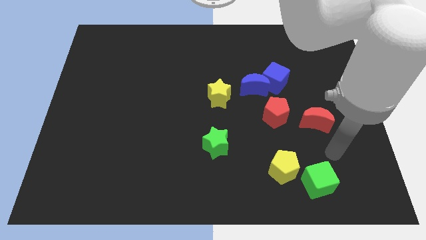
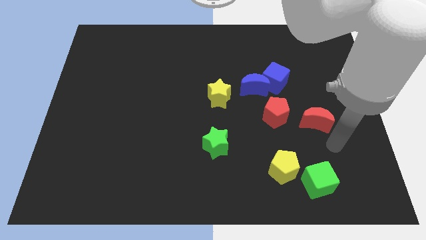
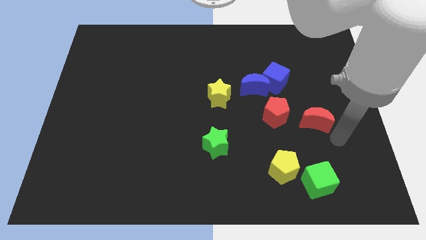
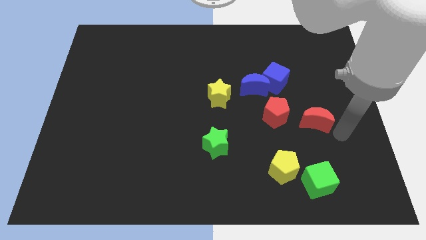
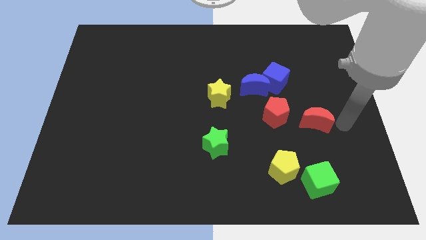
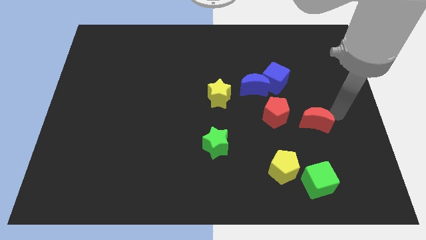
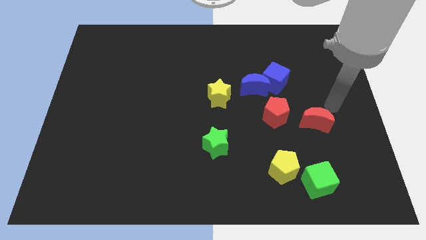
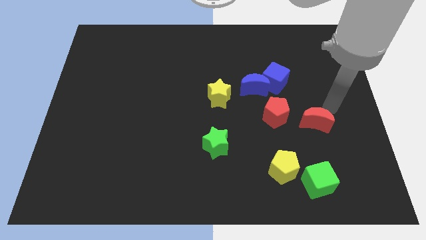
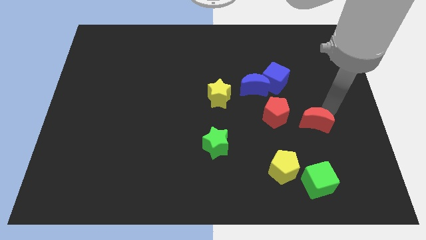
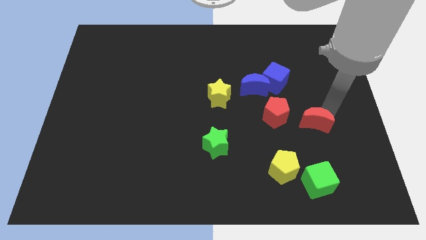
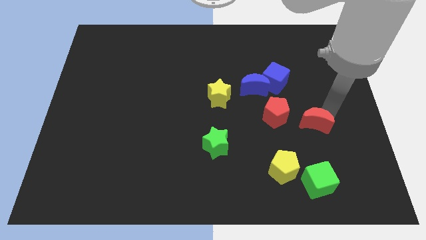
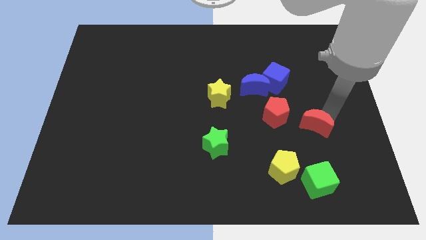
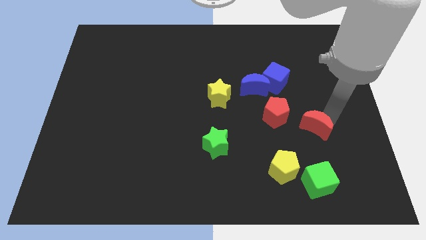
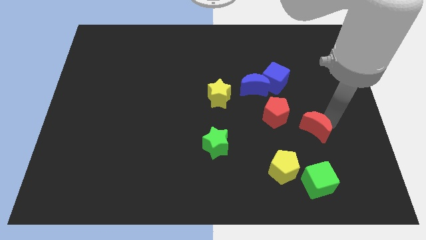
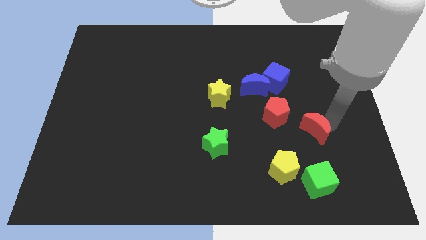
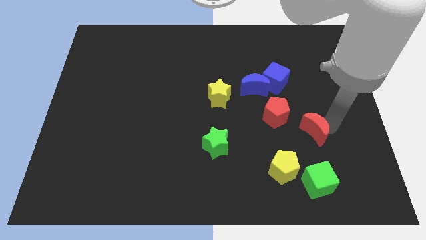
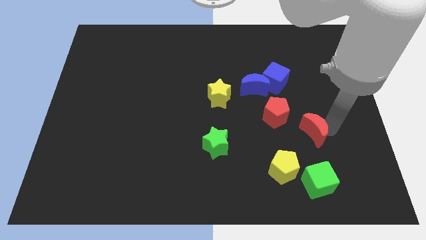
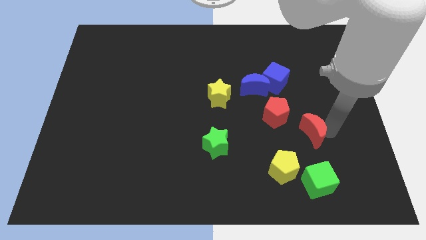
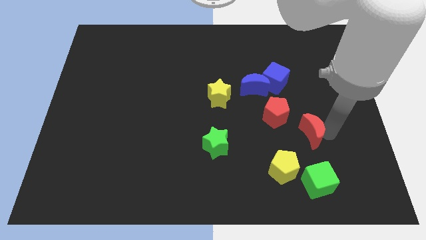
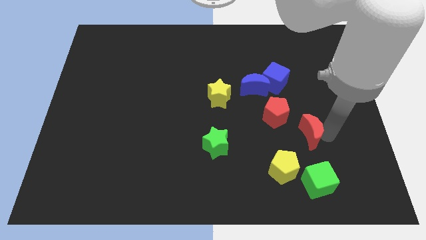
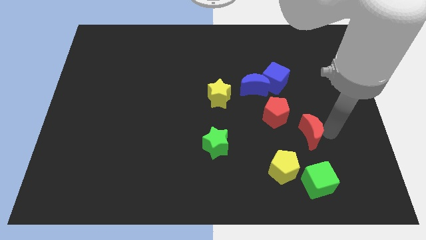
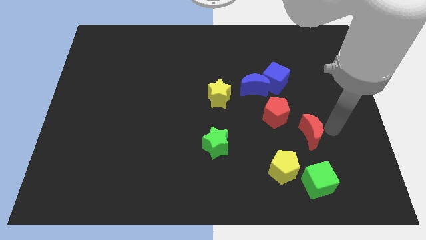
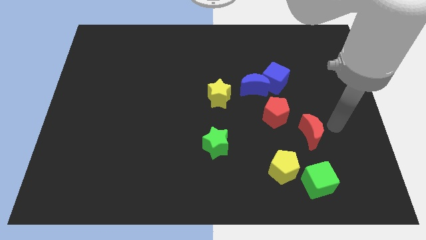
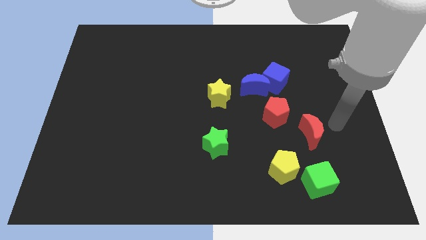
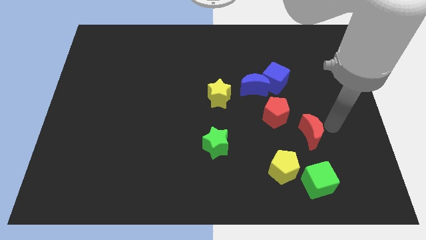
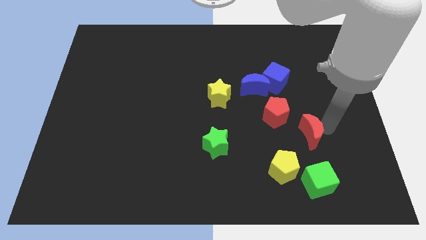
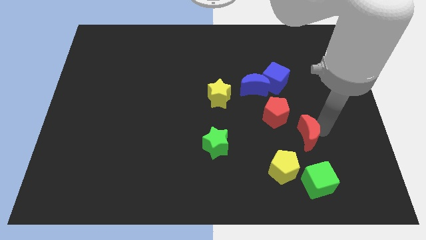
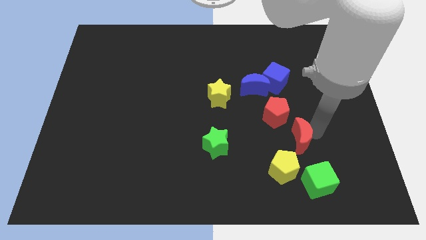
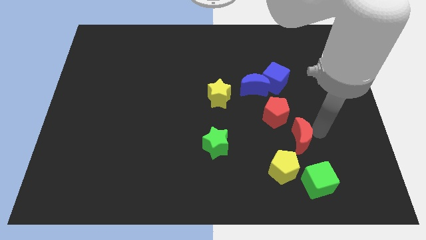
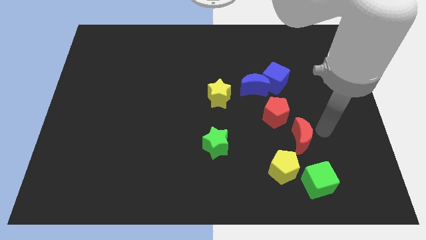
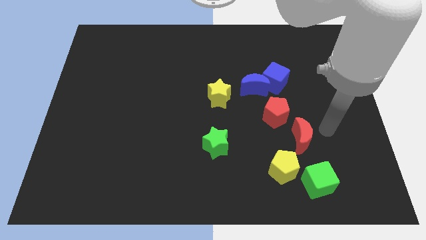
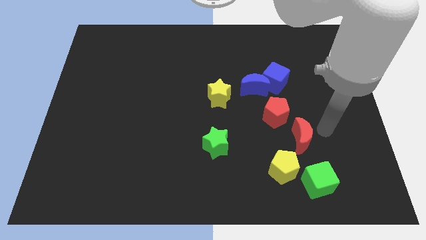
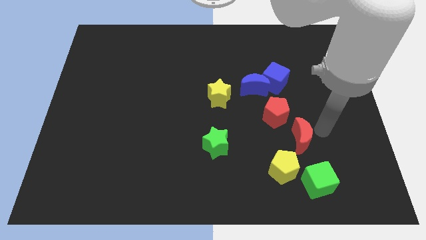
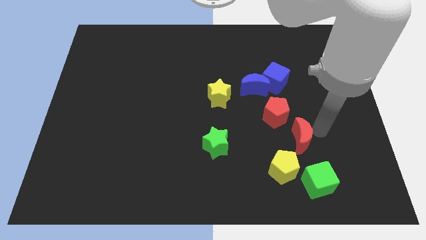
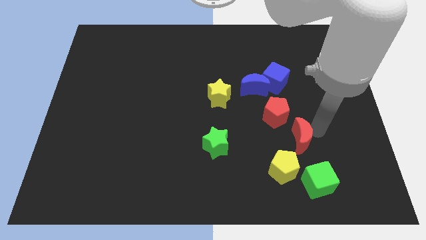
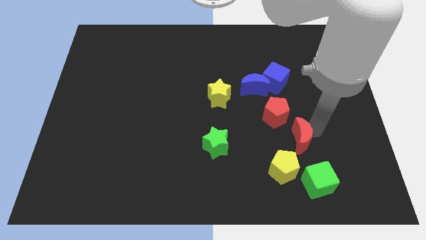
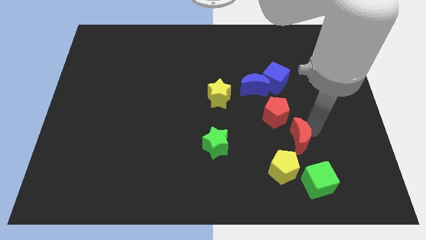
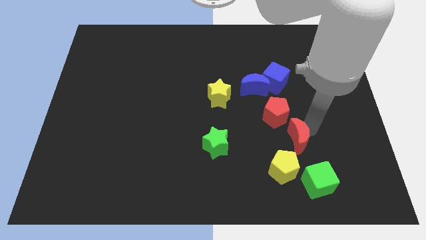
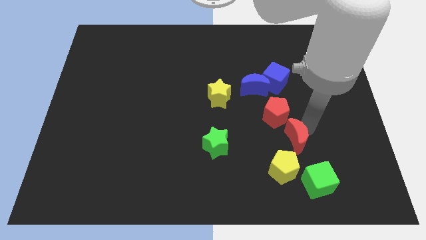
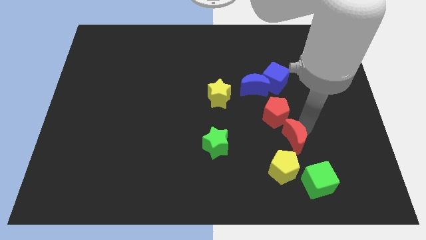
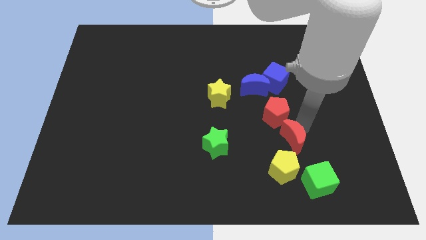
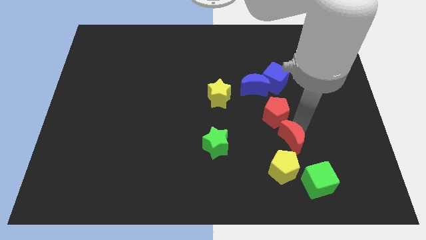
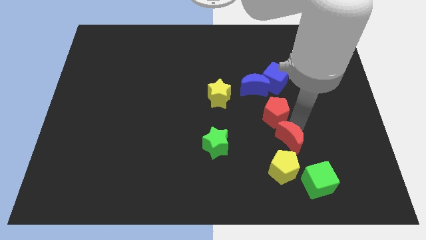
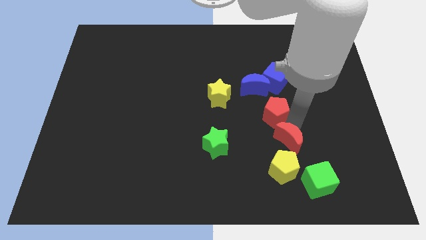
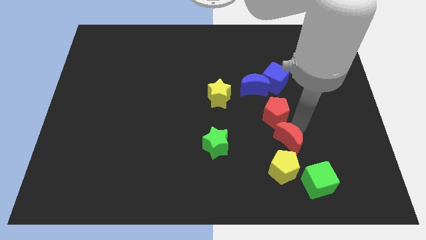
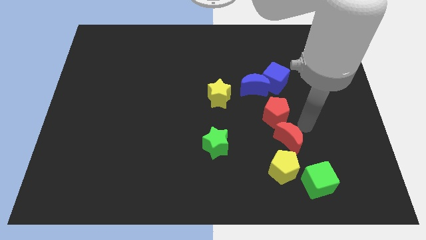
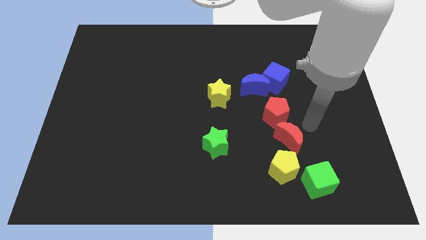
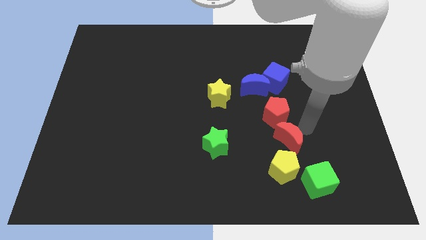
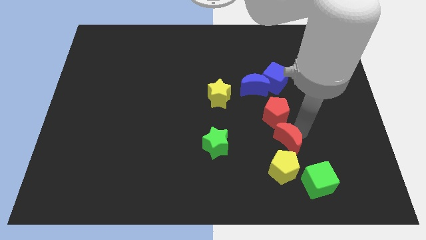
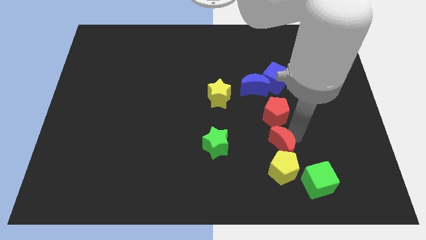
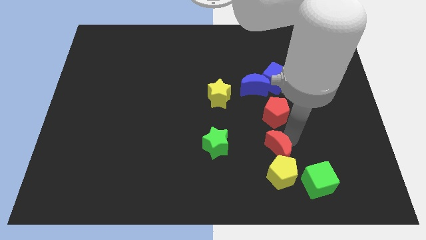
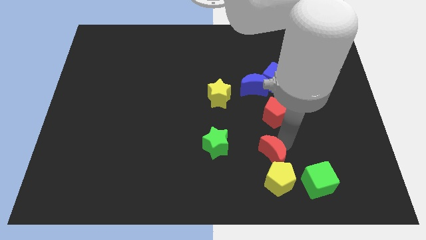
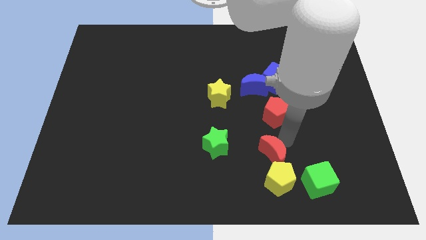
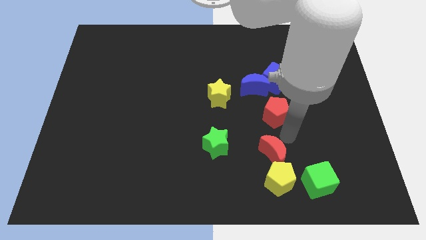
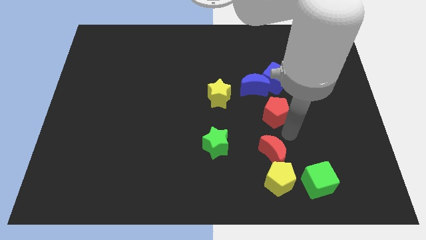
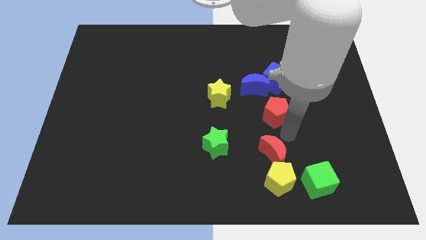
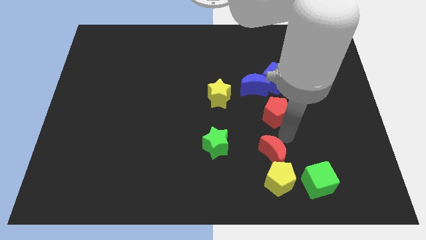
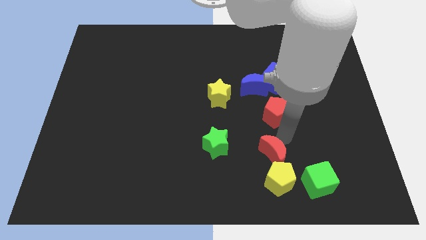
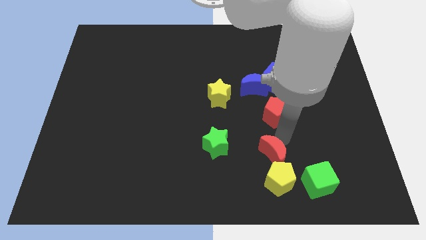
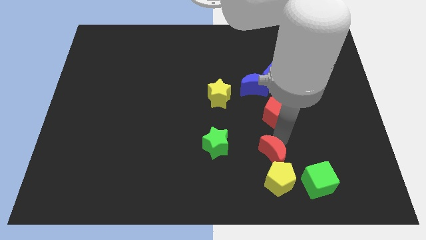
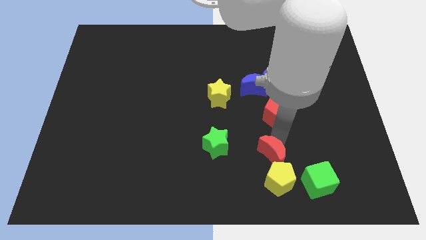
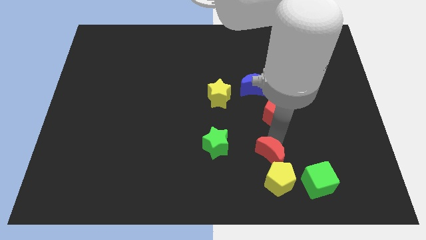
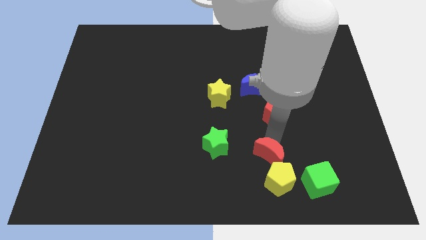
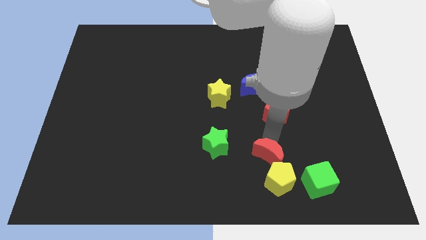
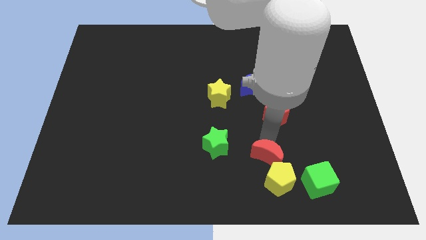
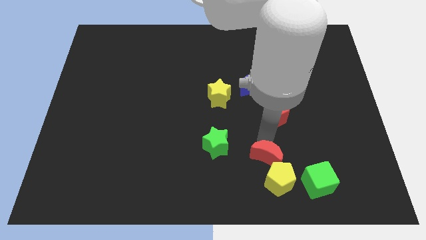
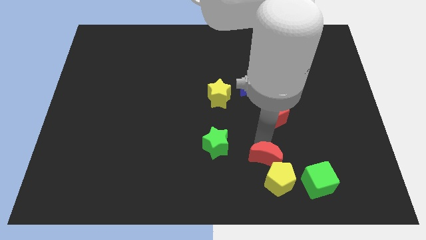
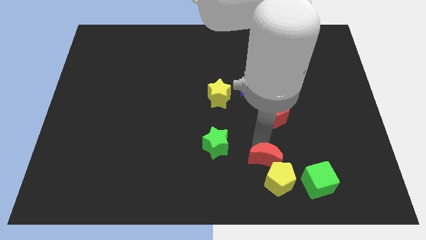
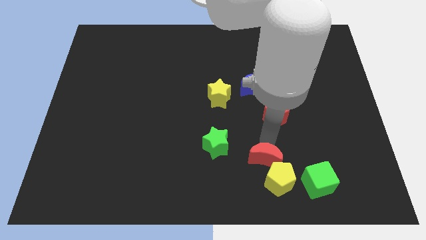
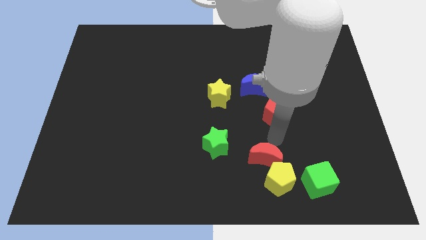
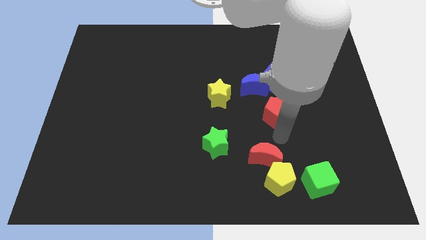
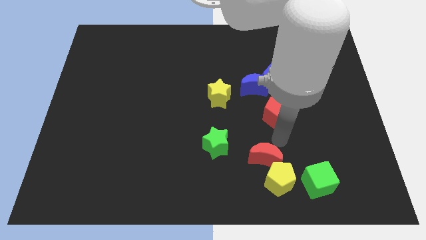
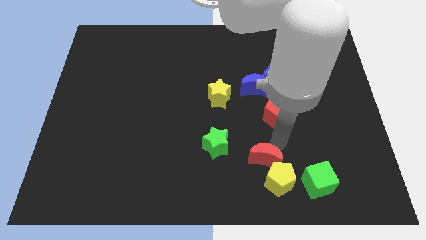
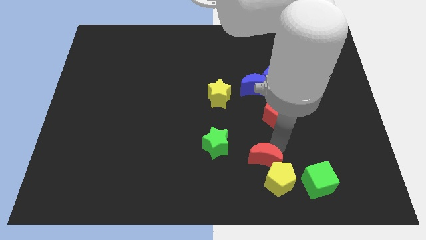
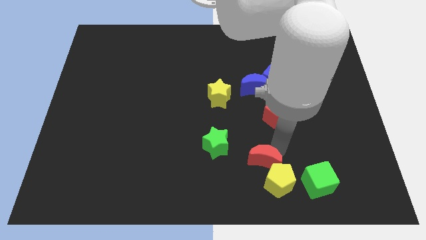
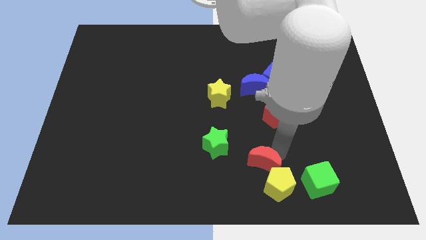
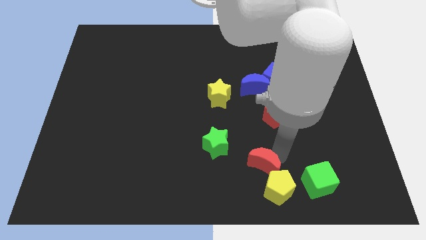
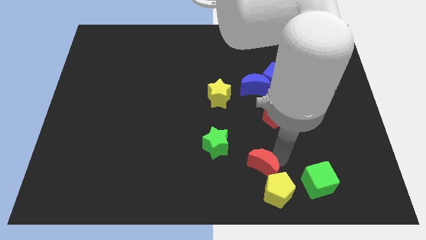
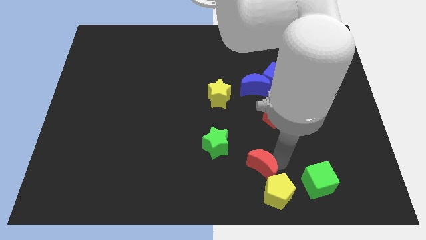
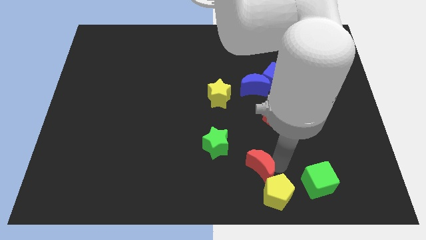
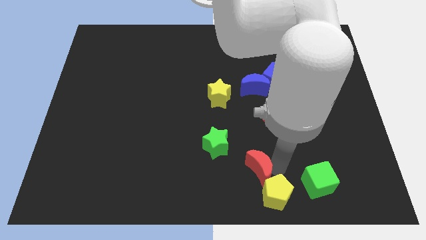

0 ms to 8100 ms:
push the red moon to the bottom side
